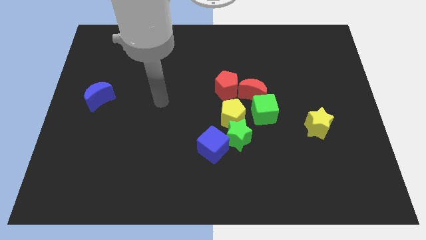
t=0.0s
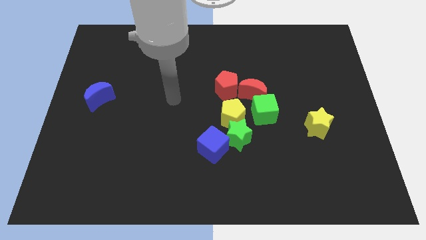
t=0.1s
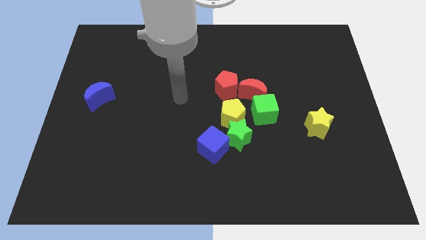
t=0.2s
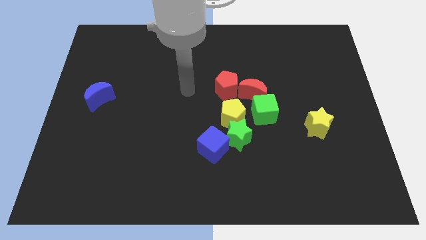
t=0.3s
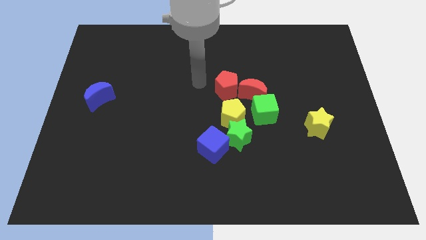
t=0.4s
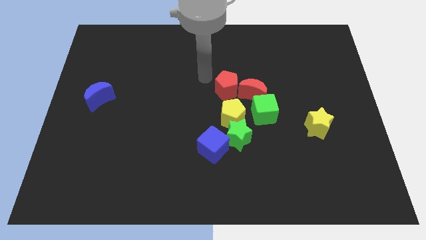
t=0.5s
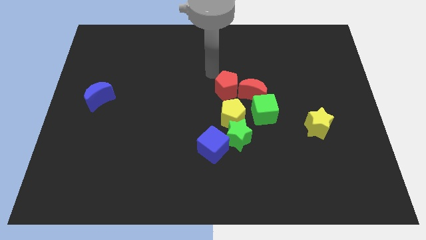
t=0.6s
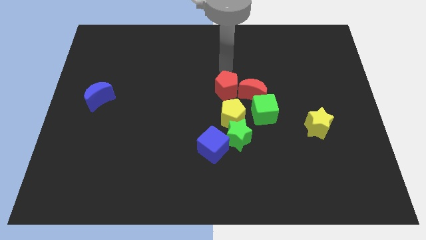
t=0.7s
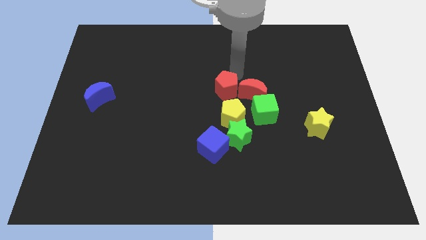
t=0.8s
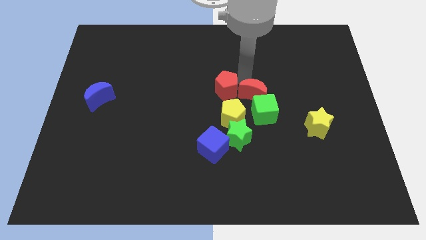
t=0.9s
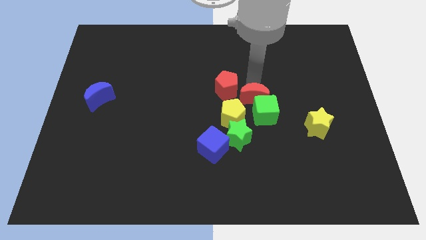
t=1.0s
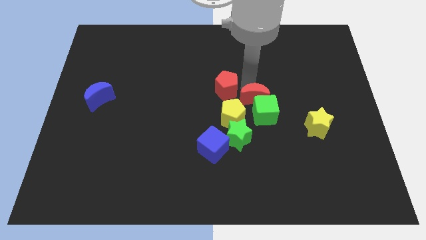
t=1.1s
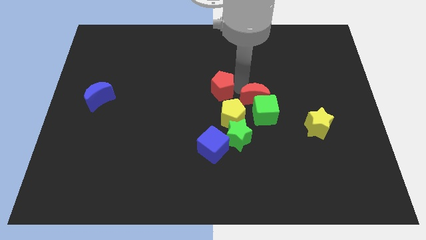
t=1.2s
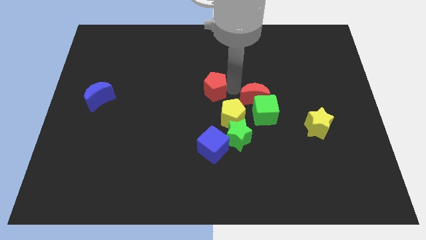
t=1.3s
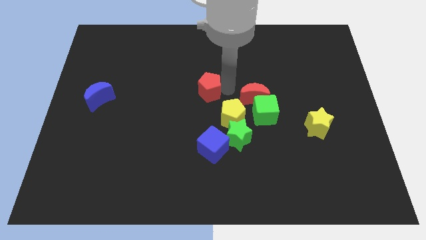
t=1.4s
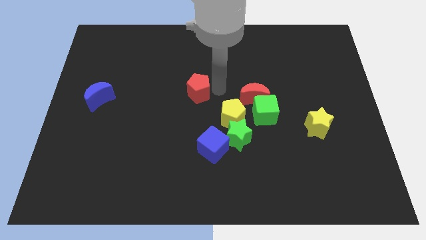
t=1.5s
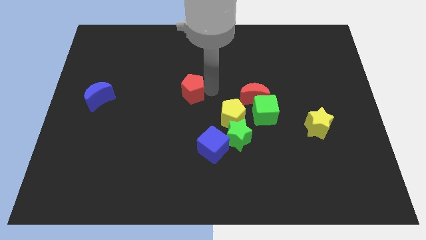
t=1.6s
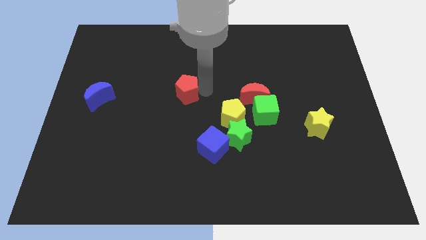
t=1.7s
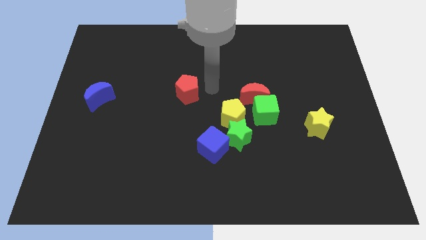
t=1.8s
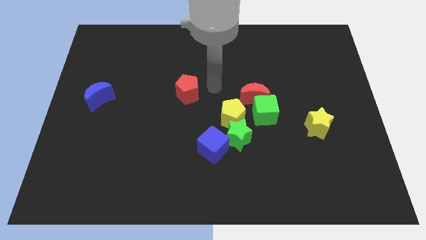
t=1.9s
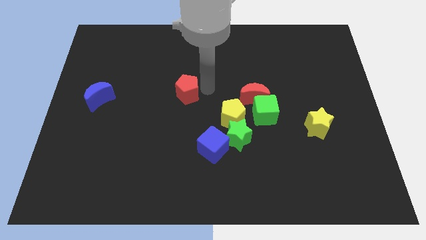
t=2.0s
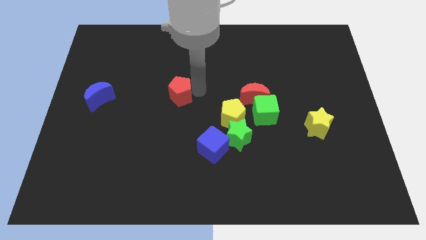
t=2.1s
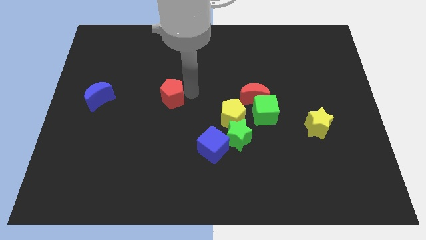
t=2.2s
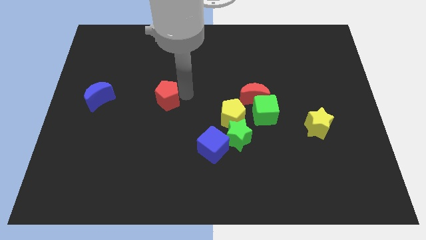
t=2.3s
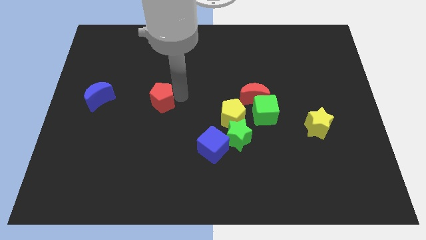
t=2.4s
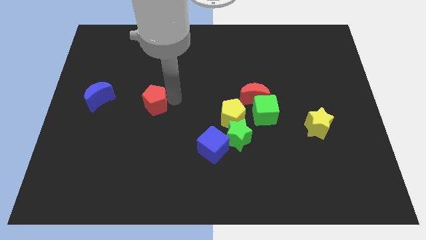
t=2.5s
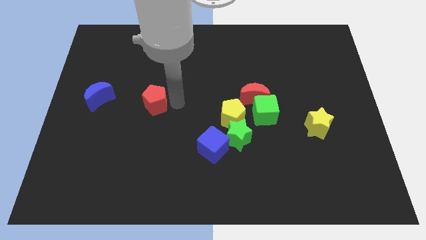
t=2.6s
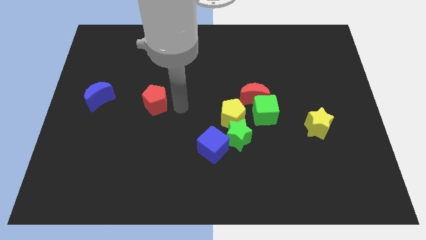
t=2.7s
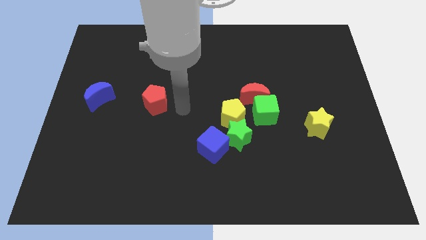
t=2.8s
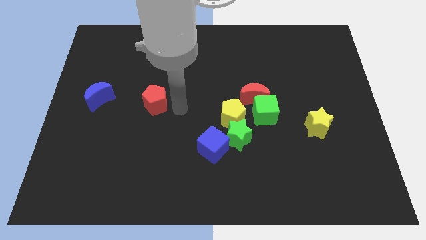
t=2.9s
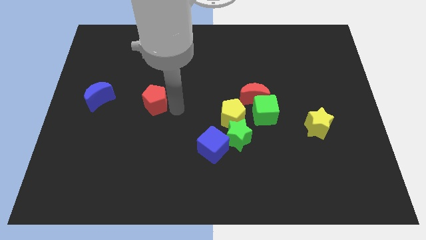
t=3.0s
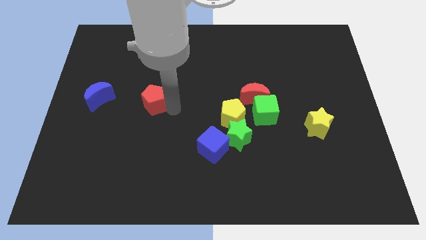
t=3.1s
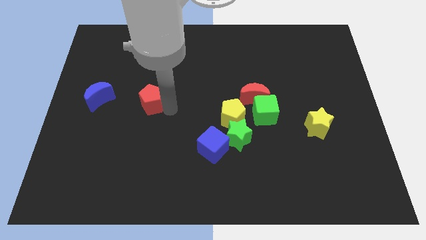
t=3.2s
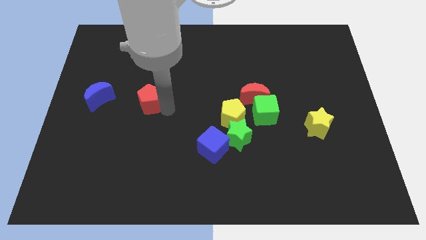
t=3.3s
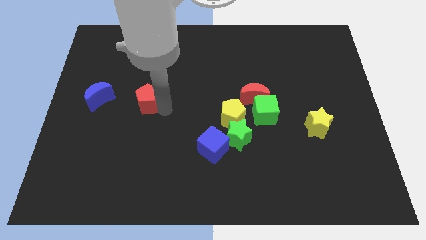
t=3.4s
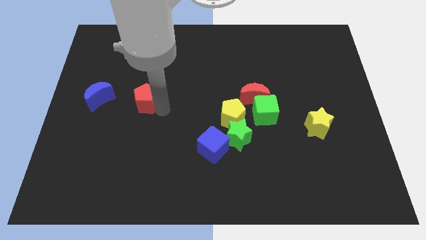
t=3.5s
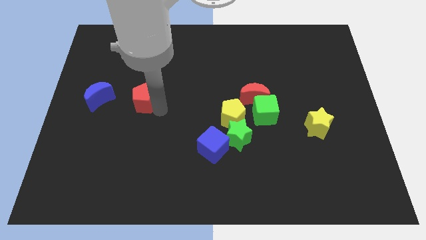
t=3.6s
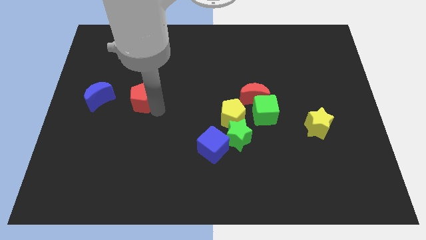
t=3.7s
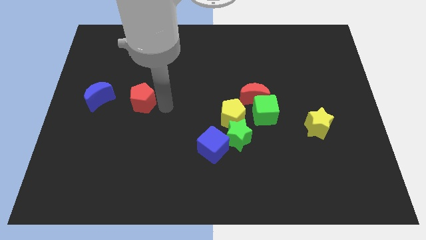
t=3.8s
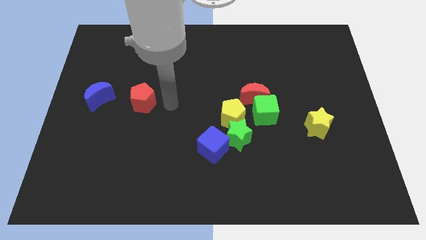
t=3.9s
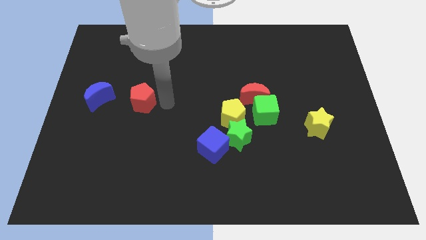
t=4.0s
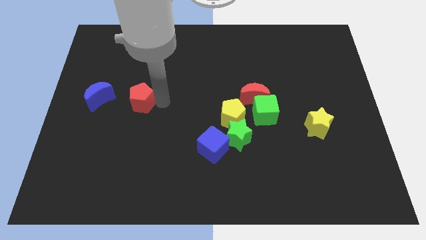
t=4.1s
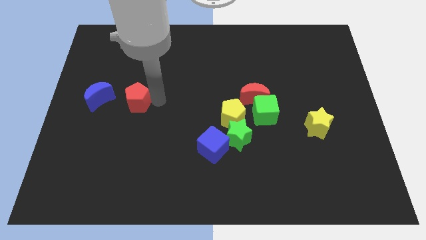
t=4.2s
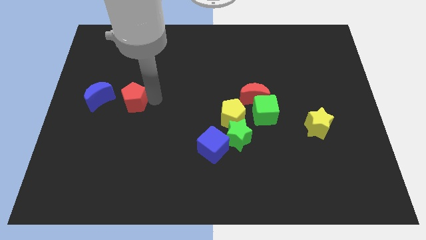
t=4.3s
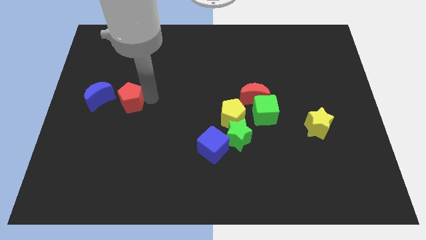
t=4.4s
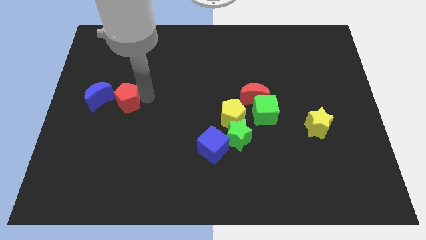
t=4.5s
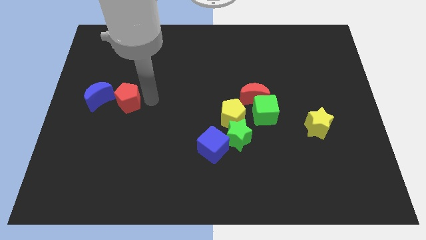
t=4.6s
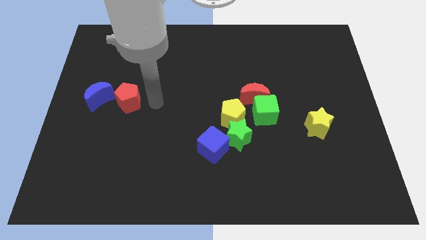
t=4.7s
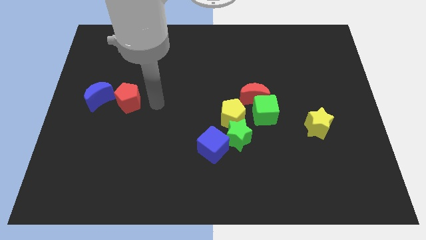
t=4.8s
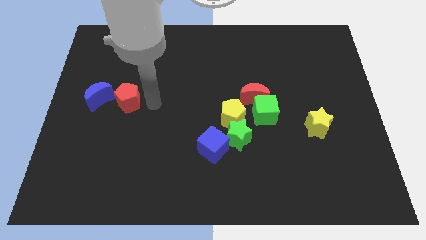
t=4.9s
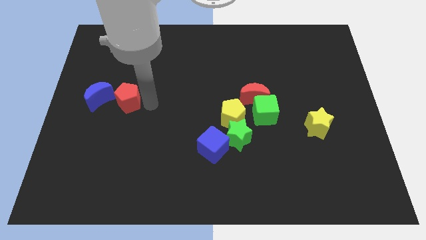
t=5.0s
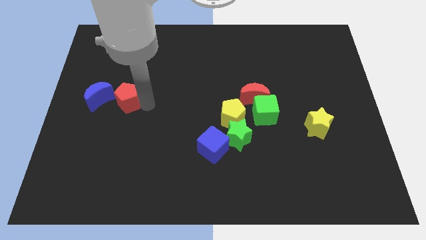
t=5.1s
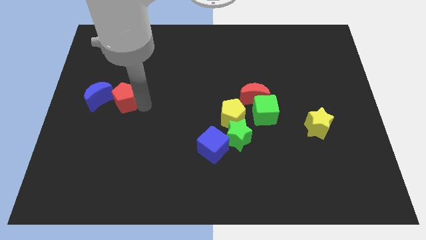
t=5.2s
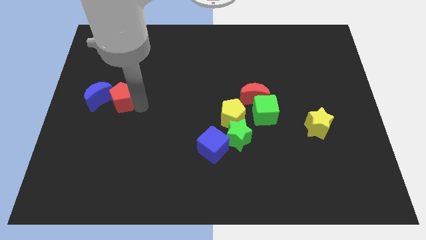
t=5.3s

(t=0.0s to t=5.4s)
put the red pentagon close to the blue moon

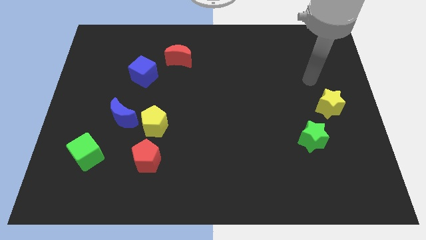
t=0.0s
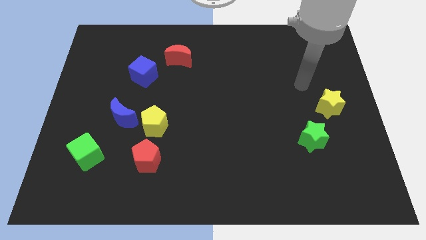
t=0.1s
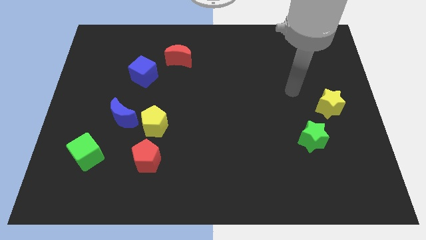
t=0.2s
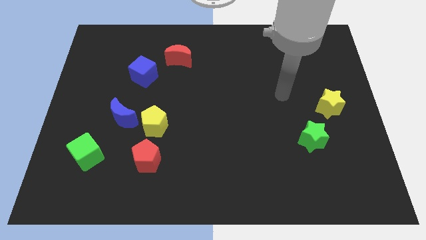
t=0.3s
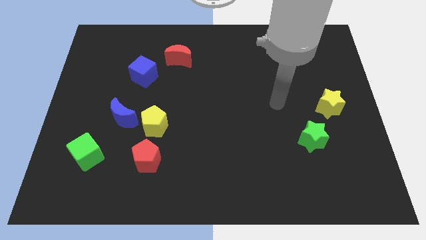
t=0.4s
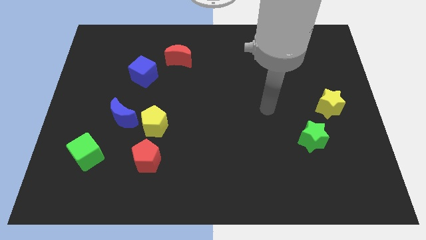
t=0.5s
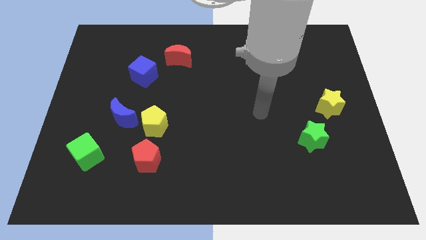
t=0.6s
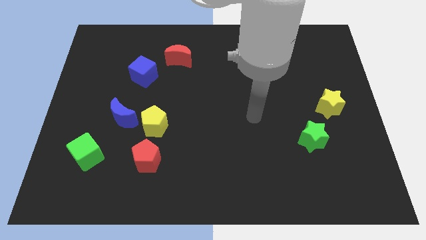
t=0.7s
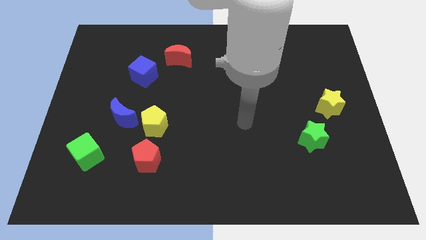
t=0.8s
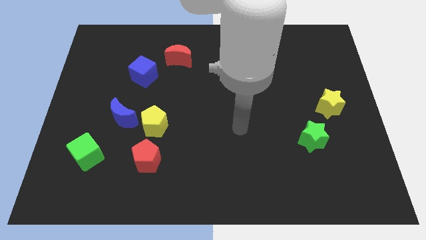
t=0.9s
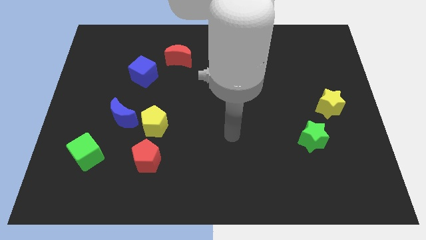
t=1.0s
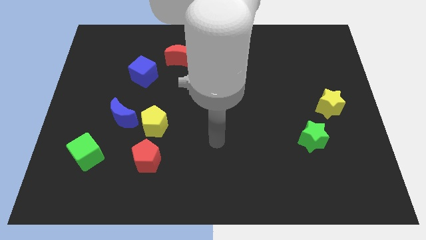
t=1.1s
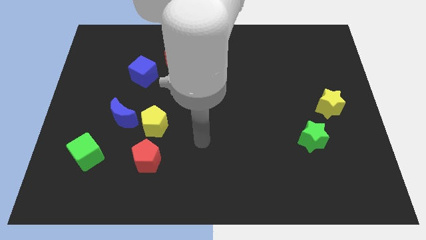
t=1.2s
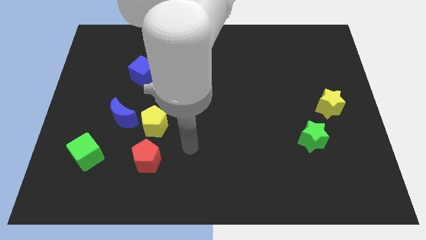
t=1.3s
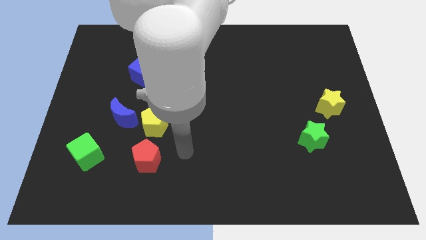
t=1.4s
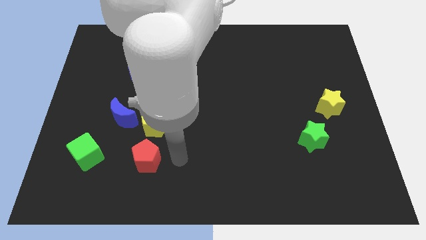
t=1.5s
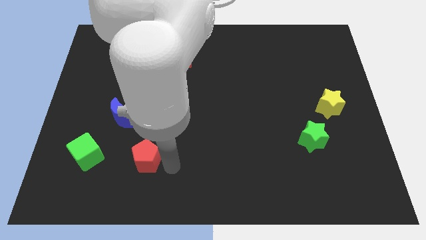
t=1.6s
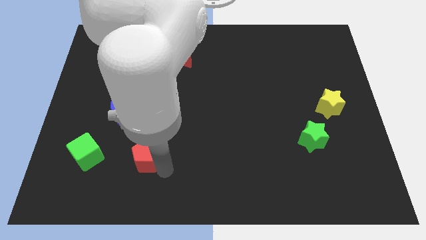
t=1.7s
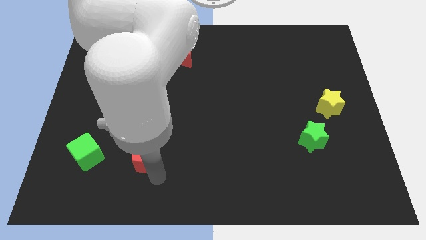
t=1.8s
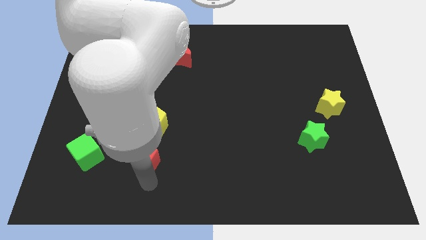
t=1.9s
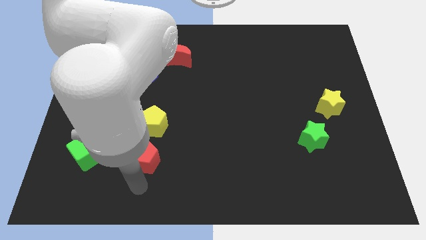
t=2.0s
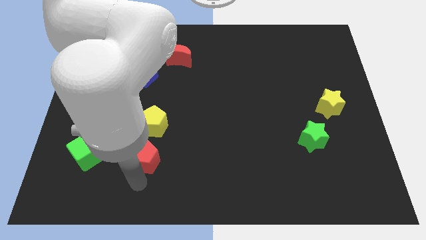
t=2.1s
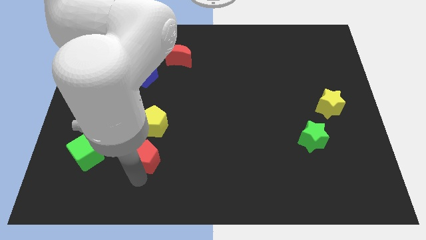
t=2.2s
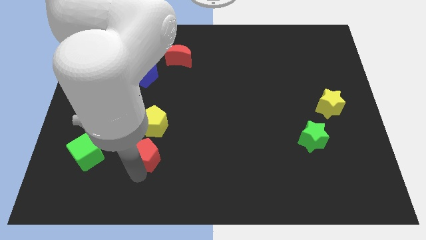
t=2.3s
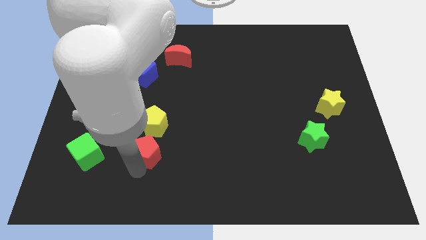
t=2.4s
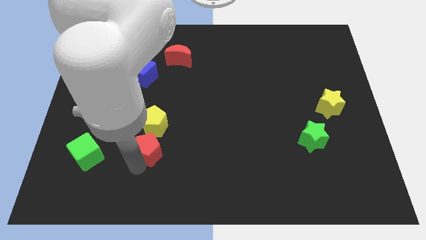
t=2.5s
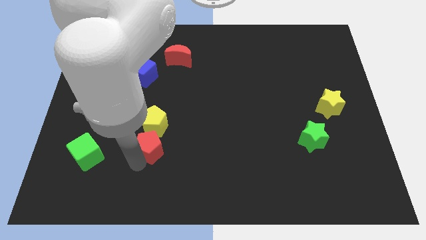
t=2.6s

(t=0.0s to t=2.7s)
push the red pentagon to the yellow pentagon

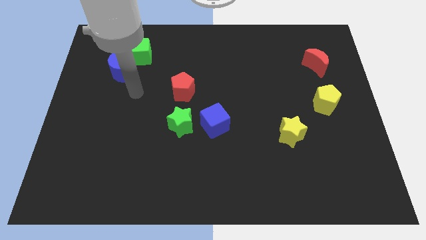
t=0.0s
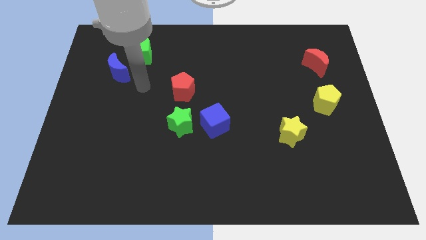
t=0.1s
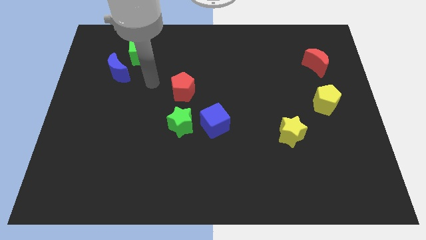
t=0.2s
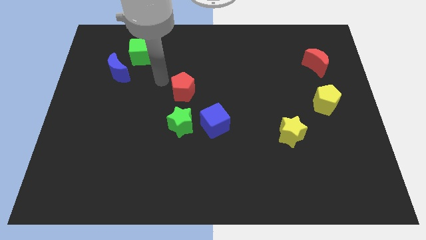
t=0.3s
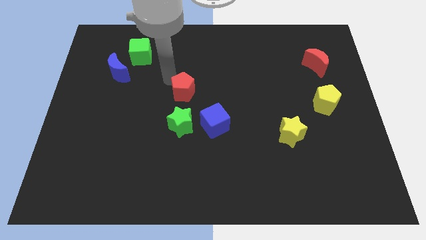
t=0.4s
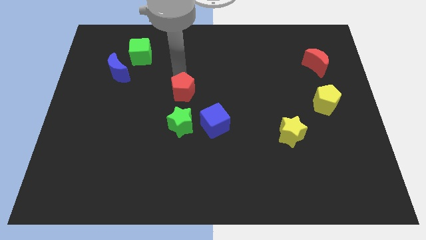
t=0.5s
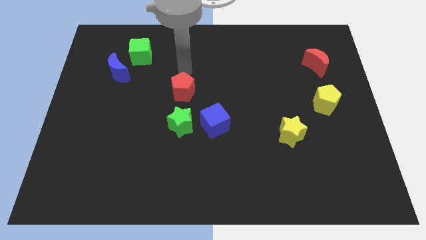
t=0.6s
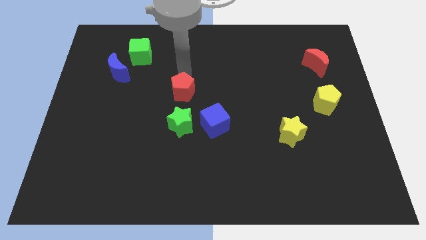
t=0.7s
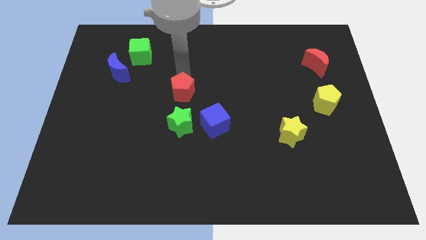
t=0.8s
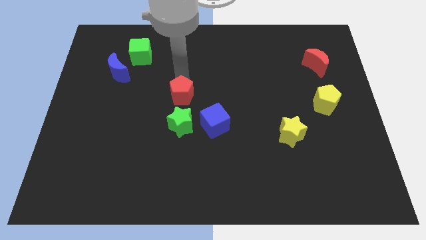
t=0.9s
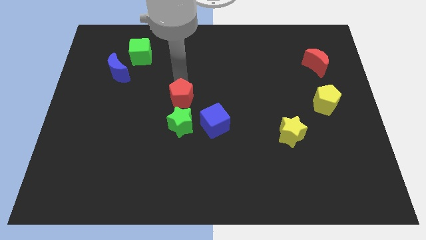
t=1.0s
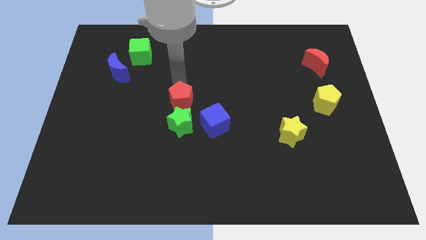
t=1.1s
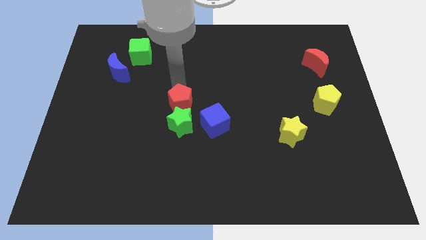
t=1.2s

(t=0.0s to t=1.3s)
put the red pentagon to the green star
